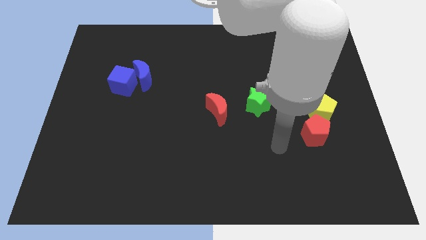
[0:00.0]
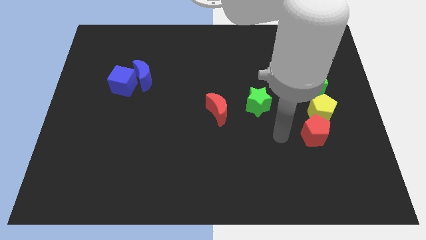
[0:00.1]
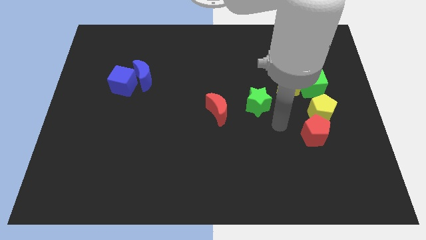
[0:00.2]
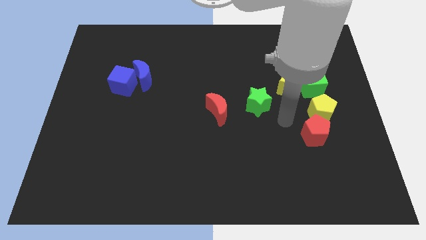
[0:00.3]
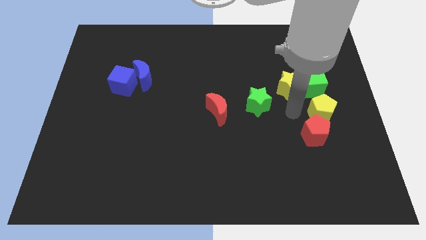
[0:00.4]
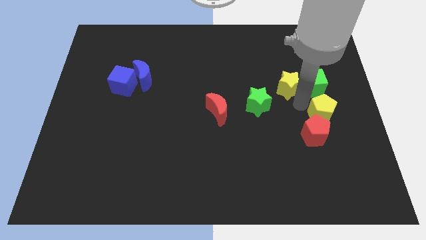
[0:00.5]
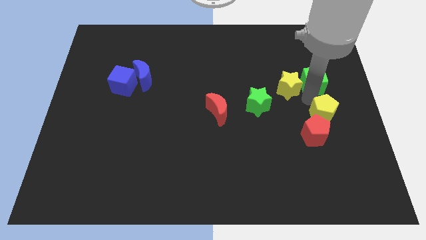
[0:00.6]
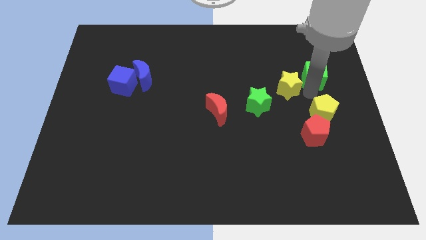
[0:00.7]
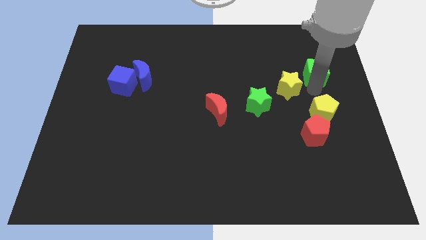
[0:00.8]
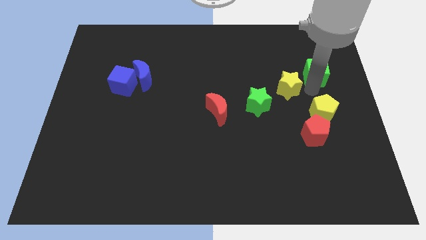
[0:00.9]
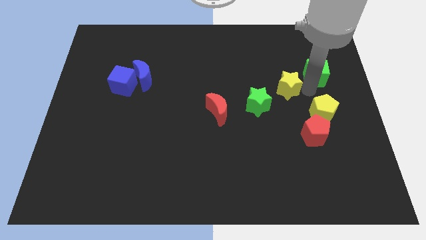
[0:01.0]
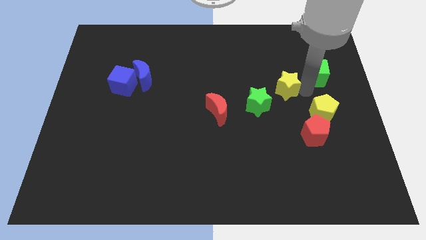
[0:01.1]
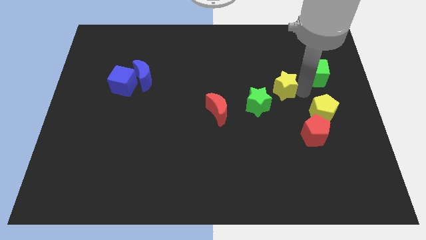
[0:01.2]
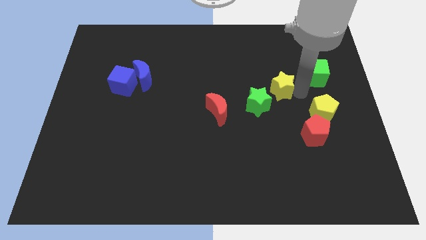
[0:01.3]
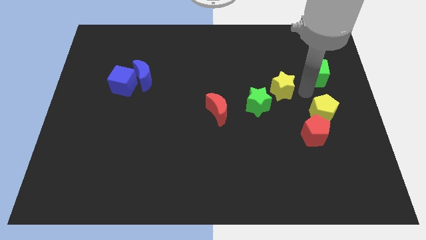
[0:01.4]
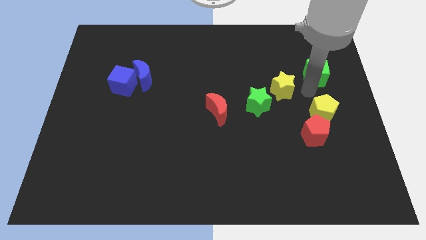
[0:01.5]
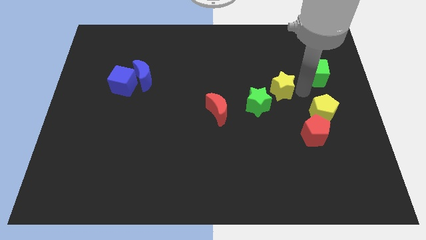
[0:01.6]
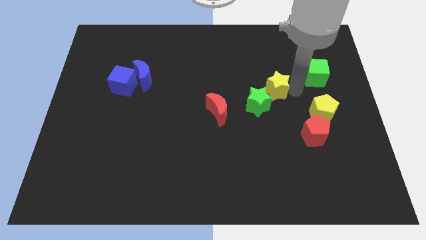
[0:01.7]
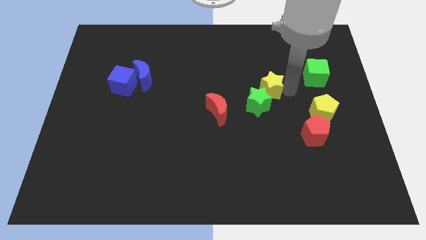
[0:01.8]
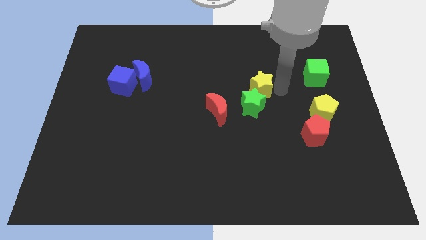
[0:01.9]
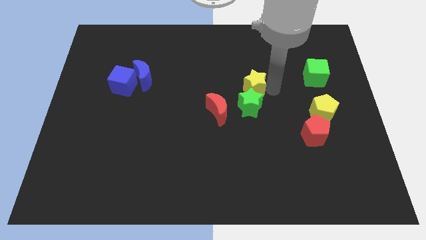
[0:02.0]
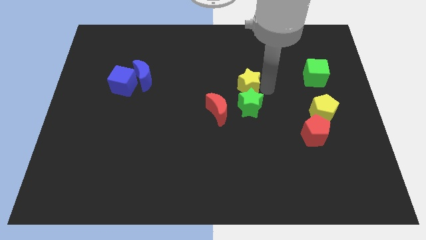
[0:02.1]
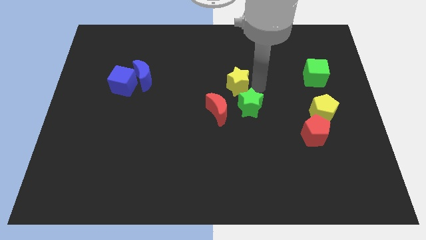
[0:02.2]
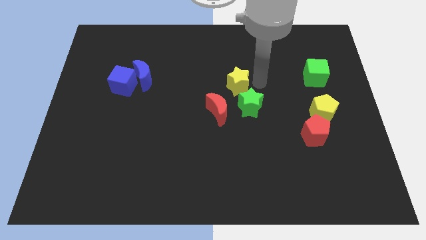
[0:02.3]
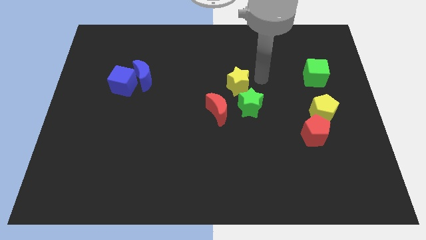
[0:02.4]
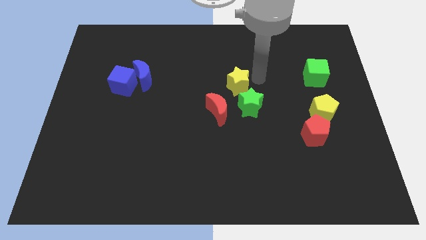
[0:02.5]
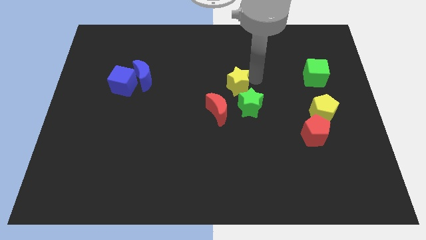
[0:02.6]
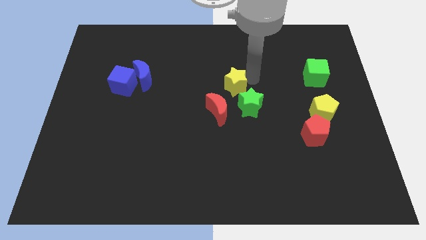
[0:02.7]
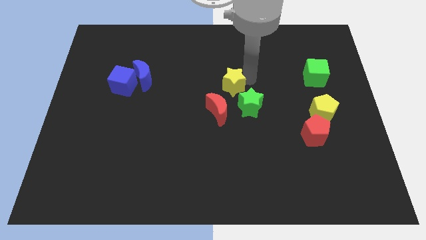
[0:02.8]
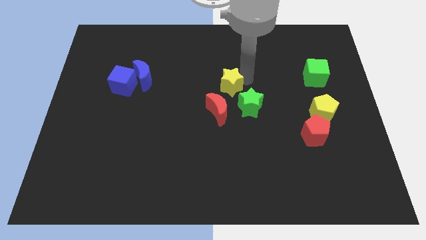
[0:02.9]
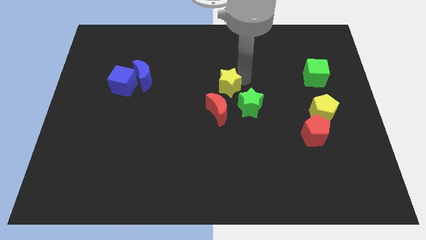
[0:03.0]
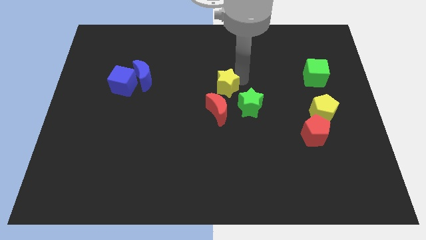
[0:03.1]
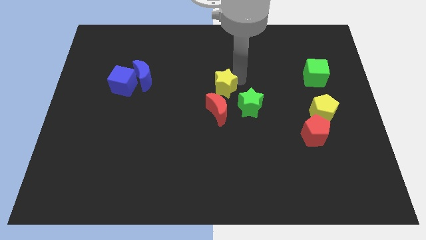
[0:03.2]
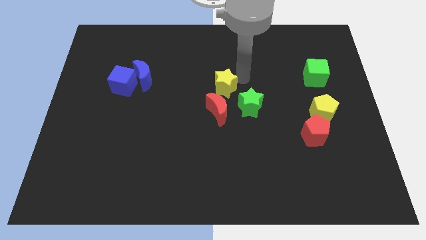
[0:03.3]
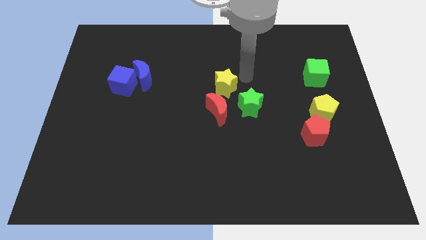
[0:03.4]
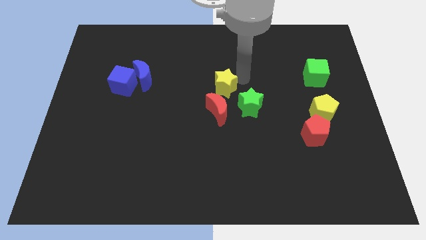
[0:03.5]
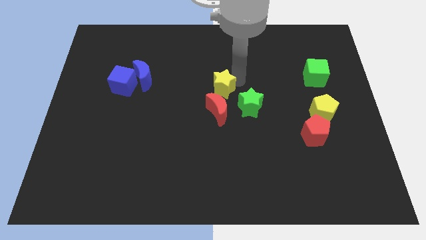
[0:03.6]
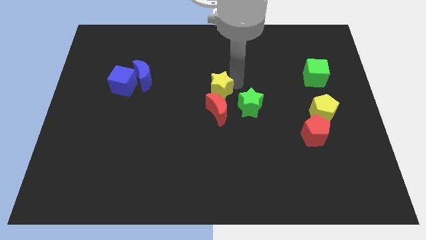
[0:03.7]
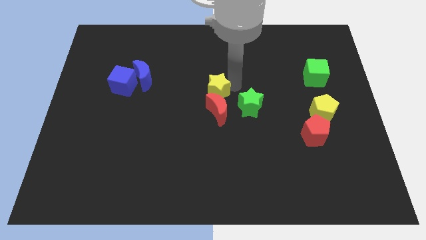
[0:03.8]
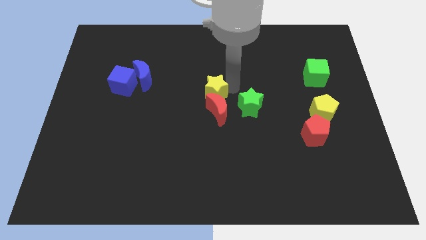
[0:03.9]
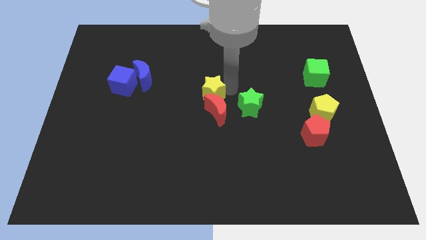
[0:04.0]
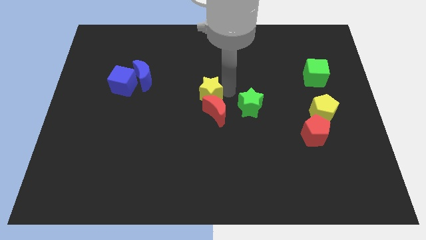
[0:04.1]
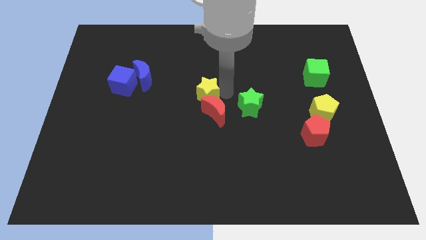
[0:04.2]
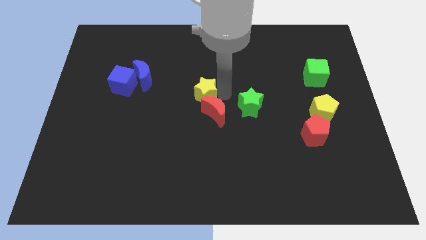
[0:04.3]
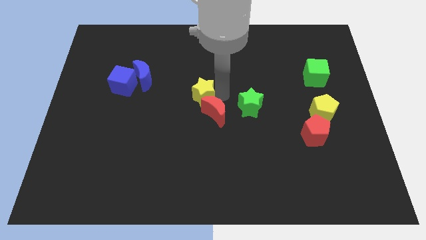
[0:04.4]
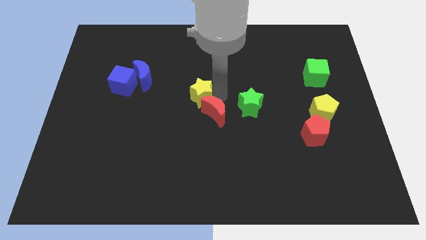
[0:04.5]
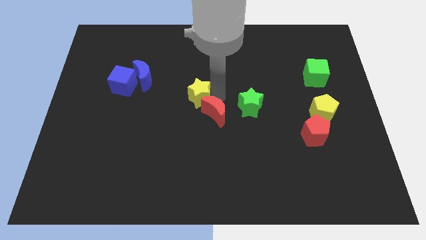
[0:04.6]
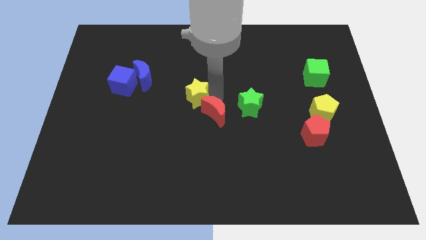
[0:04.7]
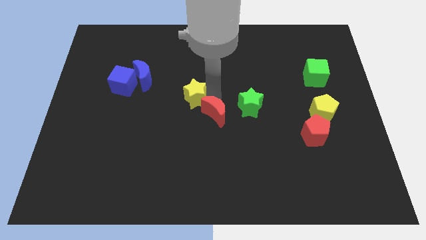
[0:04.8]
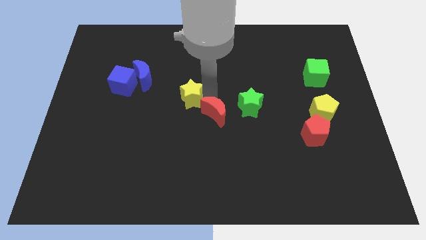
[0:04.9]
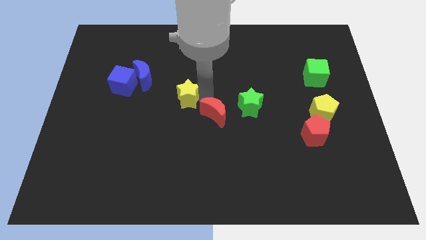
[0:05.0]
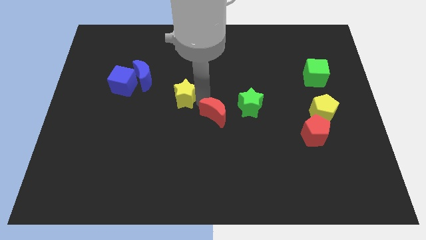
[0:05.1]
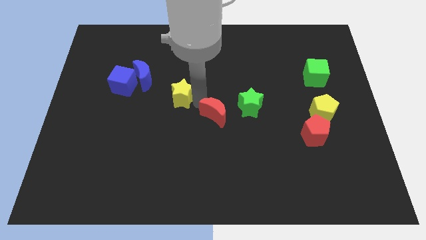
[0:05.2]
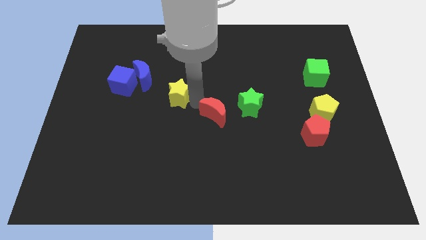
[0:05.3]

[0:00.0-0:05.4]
move the yellow star right of the blue cube

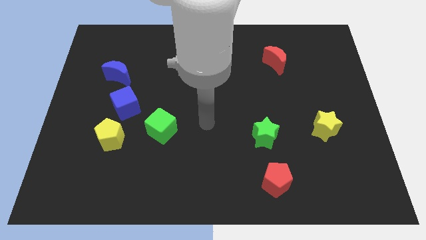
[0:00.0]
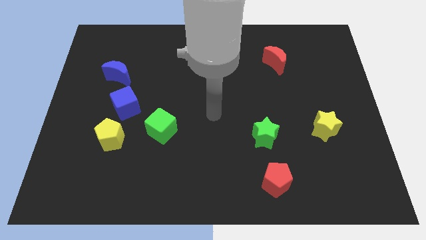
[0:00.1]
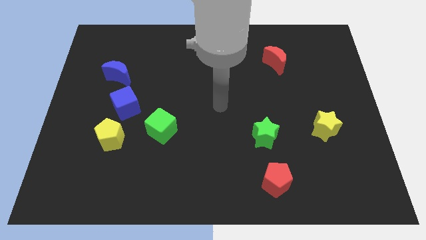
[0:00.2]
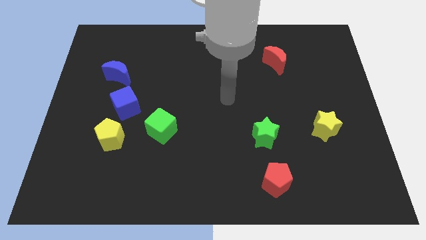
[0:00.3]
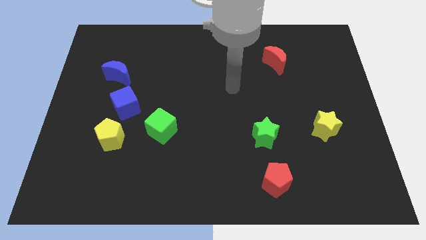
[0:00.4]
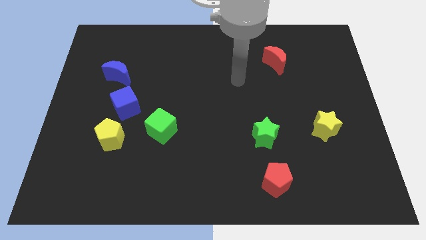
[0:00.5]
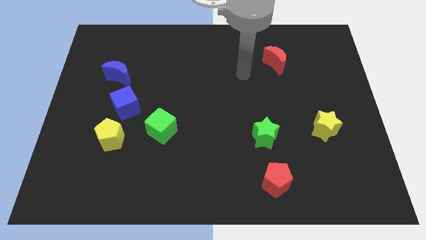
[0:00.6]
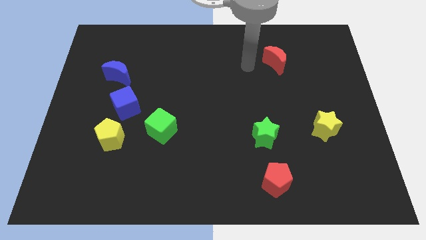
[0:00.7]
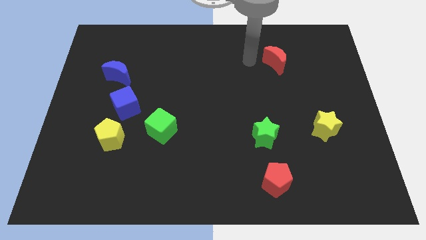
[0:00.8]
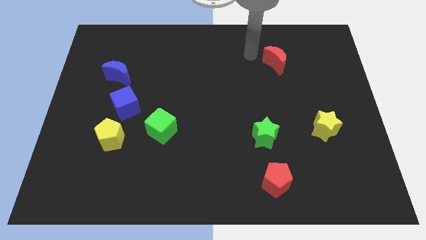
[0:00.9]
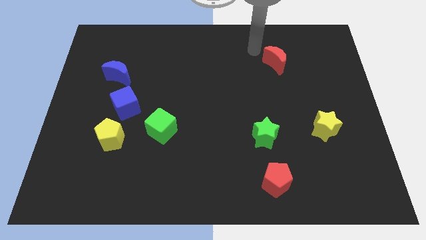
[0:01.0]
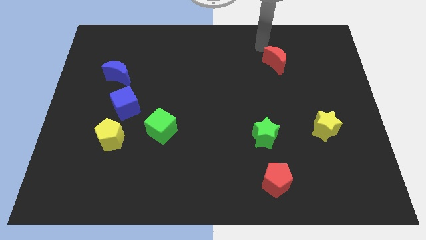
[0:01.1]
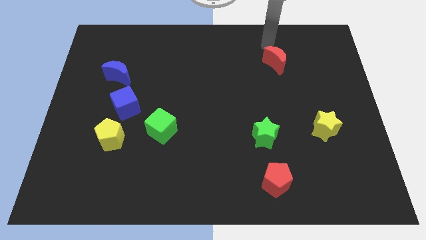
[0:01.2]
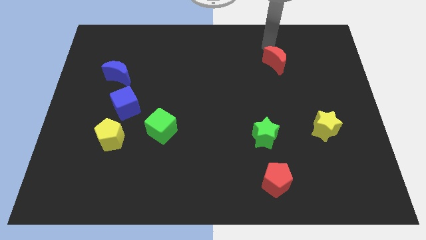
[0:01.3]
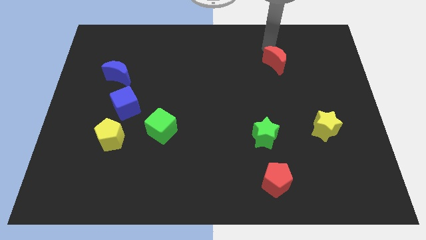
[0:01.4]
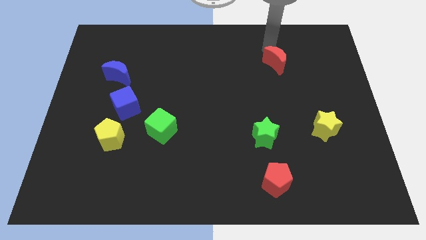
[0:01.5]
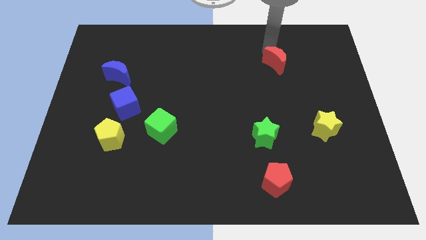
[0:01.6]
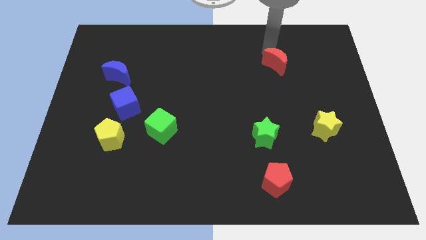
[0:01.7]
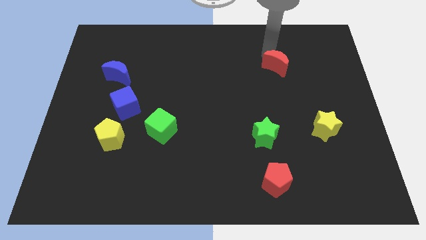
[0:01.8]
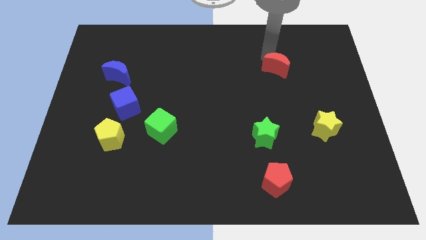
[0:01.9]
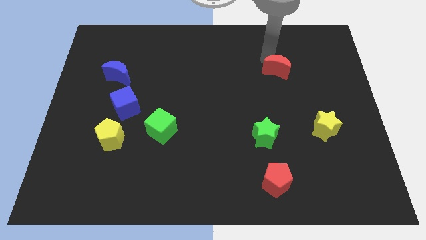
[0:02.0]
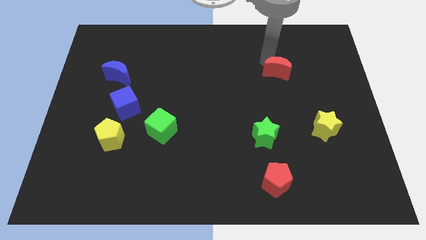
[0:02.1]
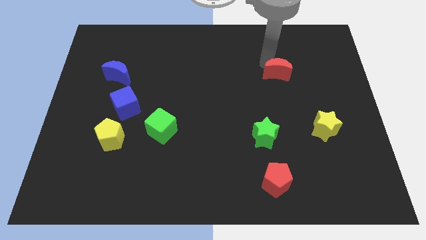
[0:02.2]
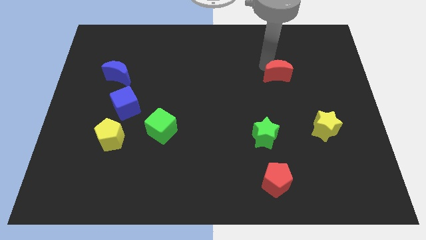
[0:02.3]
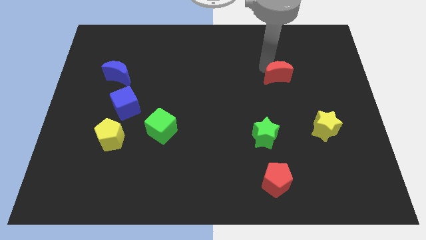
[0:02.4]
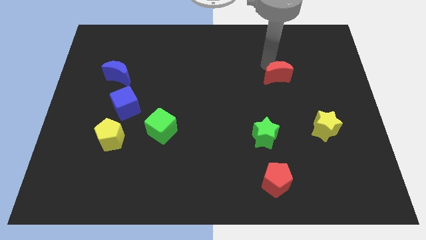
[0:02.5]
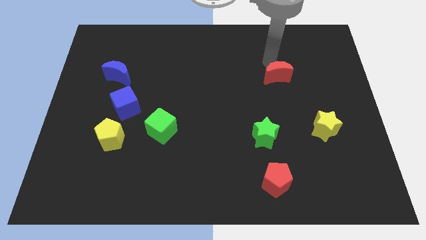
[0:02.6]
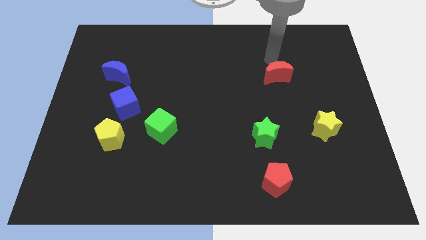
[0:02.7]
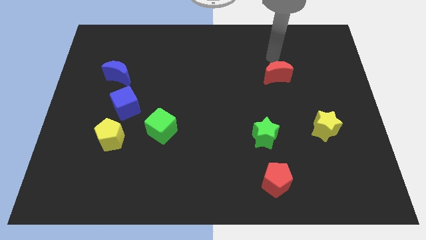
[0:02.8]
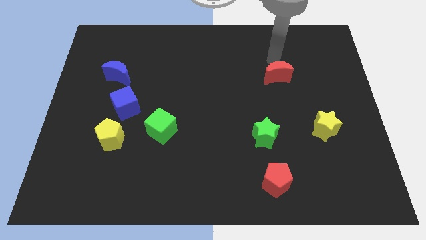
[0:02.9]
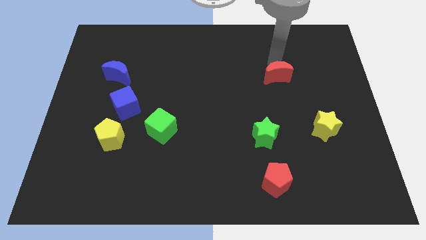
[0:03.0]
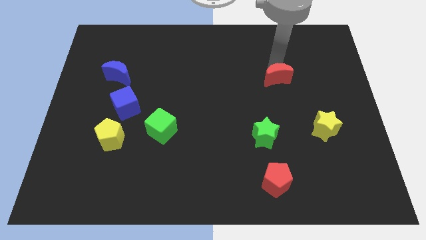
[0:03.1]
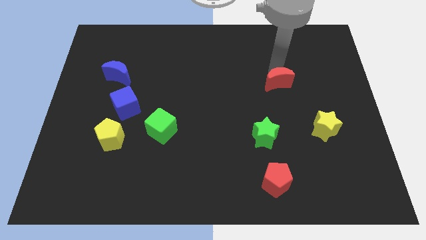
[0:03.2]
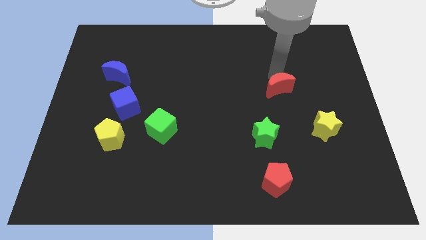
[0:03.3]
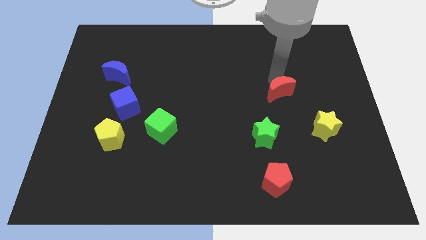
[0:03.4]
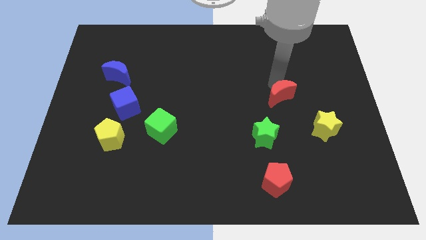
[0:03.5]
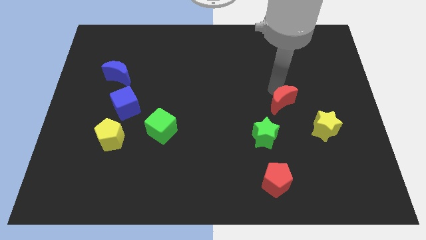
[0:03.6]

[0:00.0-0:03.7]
put the red moon diagonally up and to the left of the yellow star
